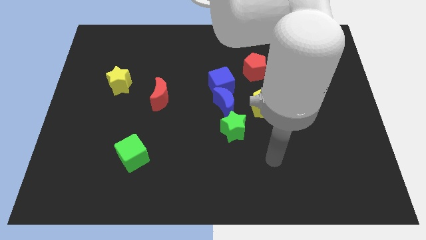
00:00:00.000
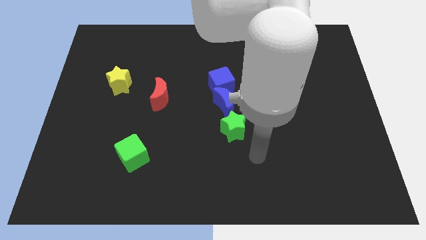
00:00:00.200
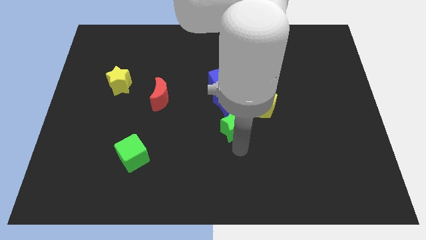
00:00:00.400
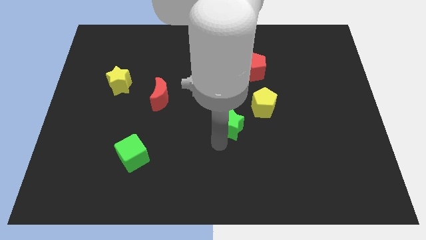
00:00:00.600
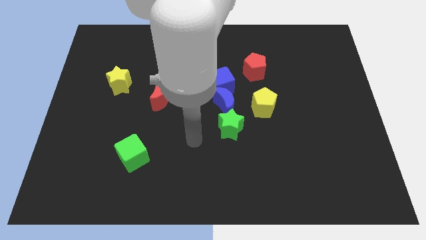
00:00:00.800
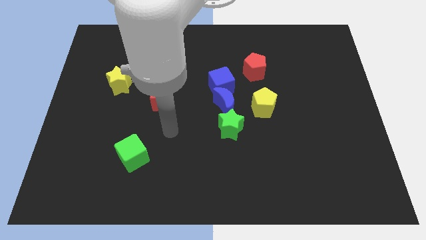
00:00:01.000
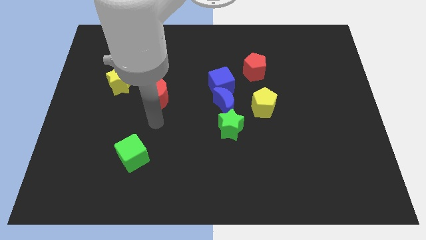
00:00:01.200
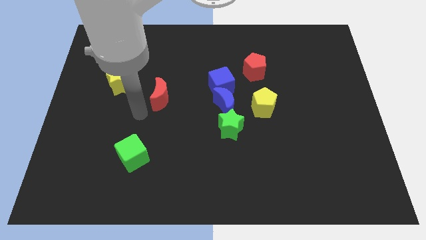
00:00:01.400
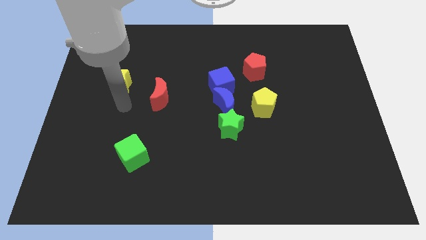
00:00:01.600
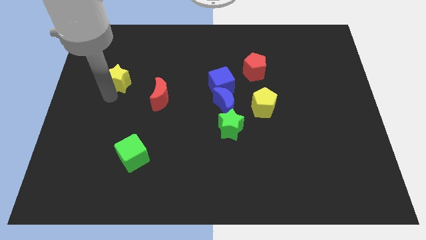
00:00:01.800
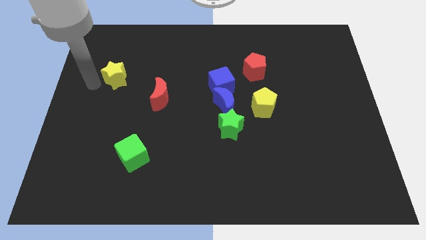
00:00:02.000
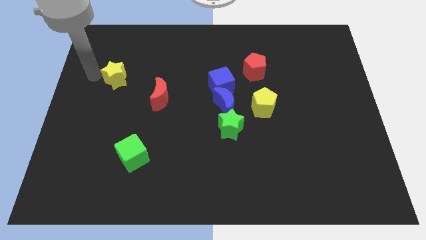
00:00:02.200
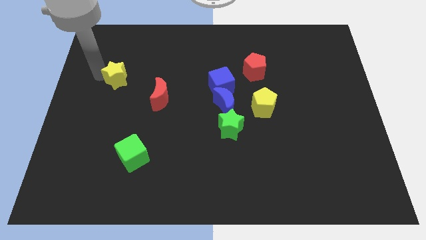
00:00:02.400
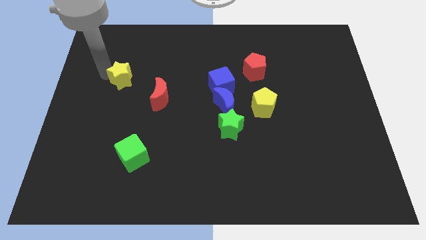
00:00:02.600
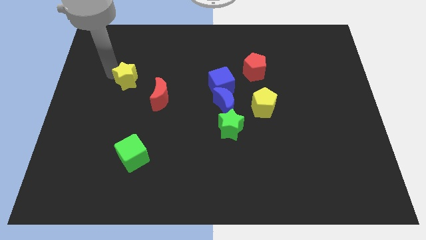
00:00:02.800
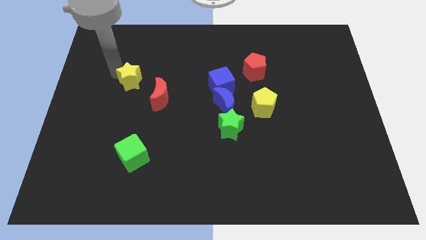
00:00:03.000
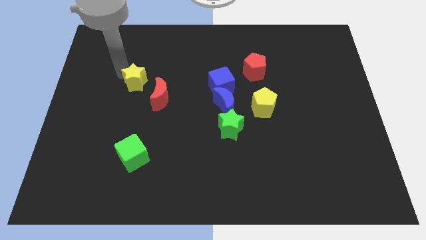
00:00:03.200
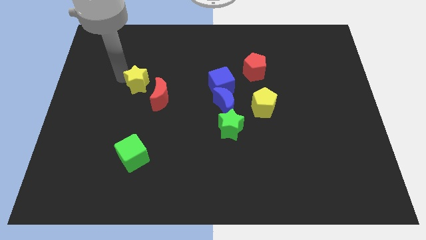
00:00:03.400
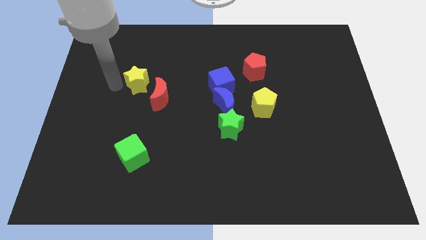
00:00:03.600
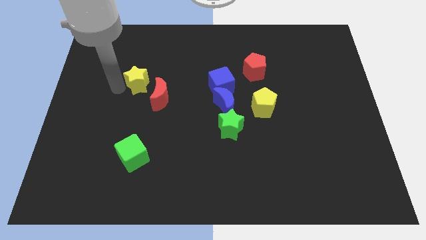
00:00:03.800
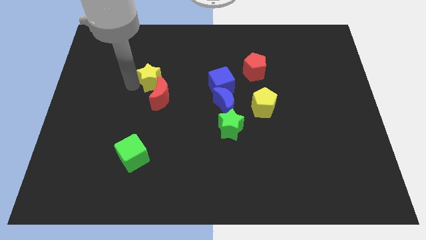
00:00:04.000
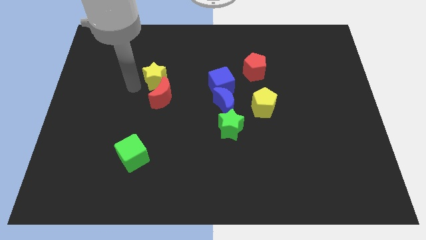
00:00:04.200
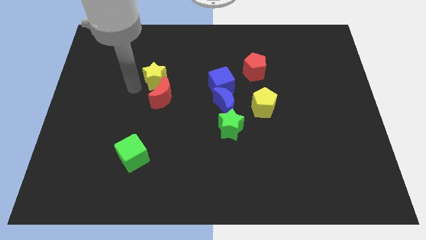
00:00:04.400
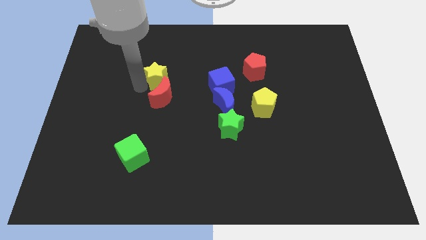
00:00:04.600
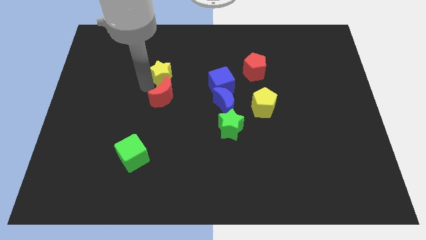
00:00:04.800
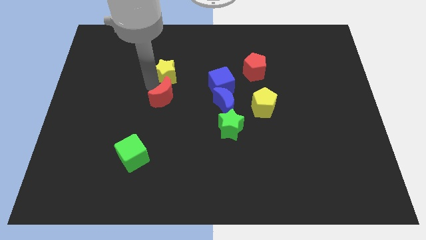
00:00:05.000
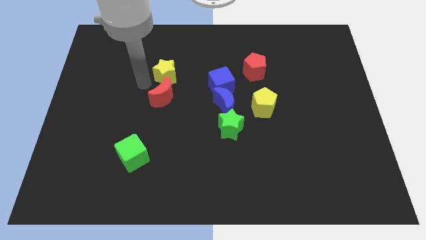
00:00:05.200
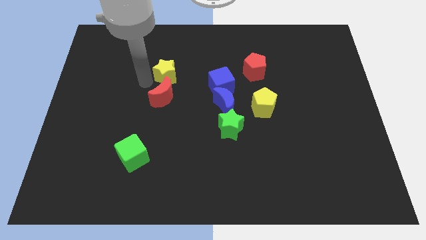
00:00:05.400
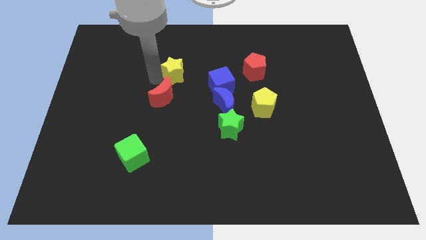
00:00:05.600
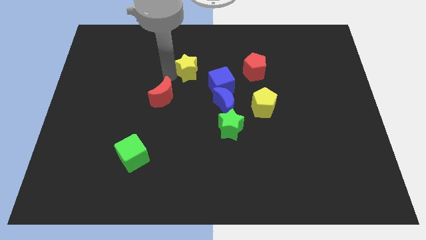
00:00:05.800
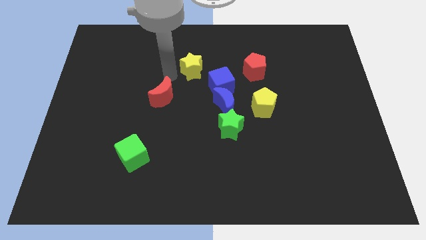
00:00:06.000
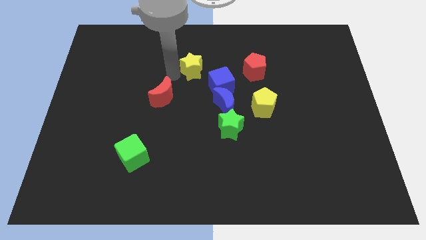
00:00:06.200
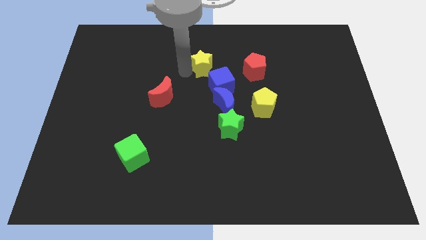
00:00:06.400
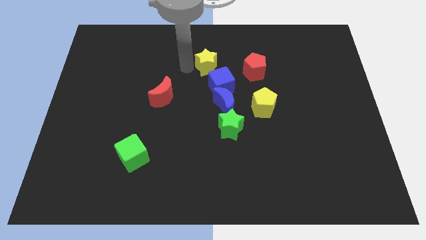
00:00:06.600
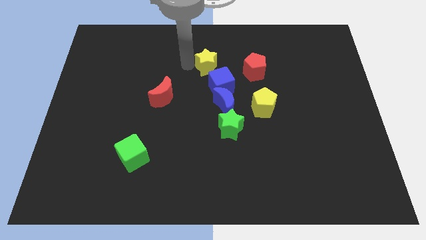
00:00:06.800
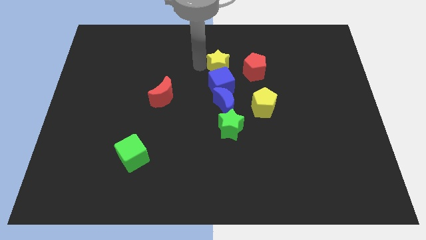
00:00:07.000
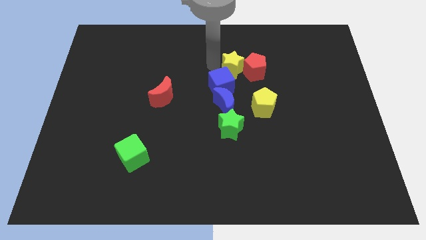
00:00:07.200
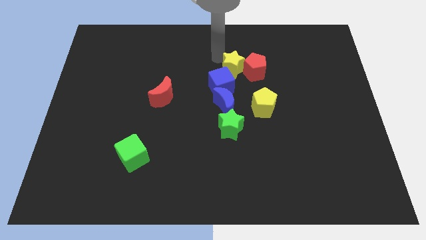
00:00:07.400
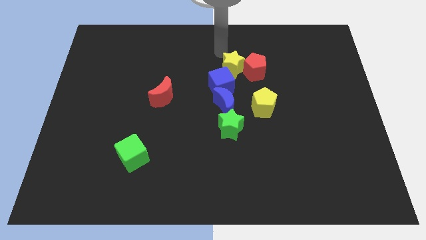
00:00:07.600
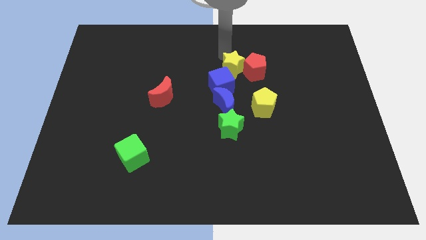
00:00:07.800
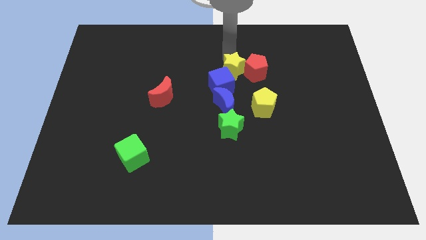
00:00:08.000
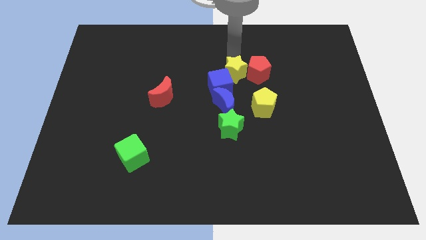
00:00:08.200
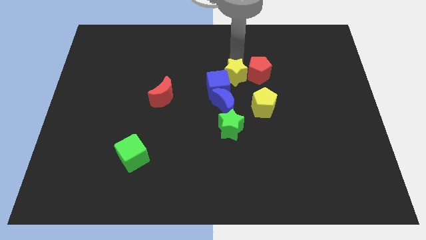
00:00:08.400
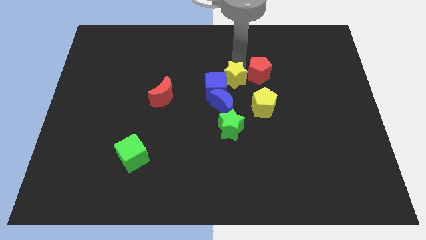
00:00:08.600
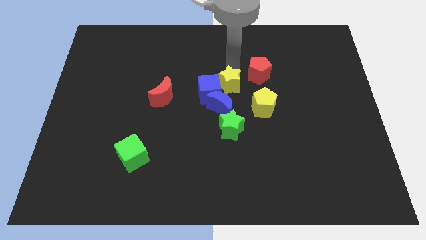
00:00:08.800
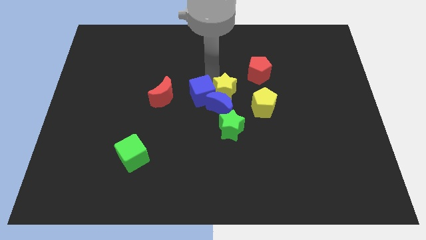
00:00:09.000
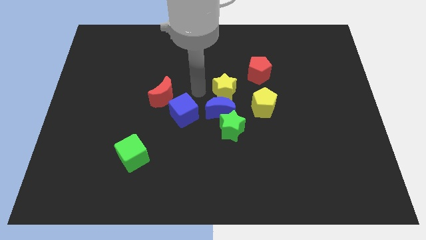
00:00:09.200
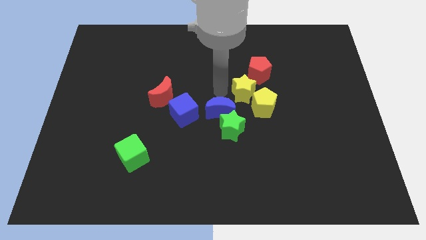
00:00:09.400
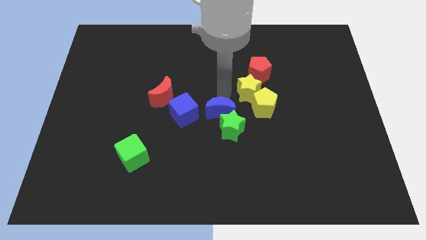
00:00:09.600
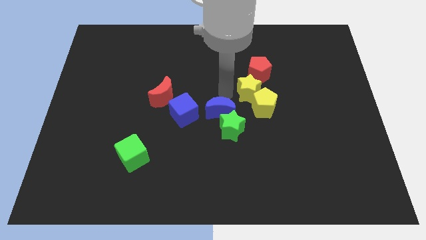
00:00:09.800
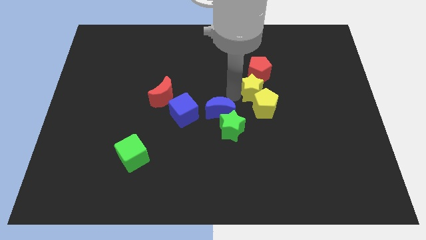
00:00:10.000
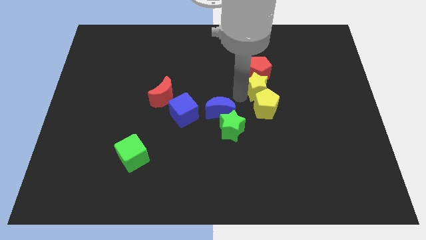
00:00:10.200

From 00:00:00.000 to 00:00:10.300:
put the yellow star diagonally down and to the right of the red pentagon

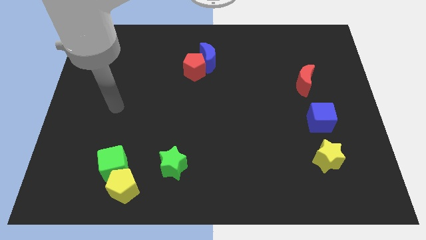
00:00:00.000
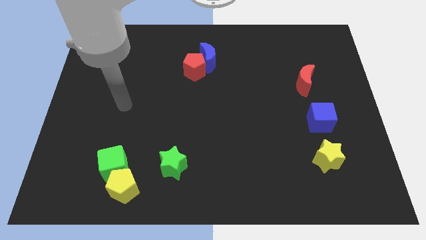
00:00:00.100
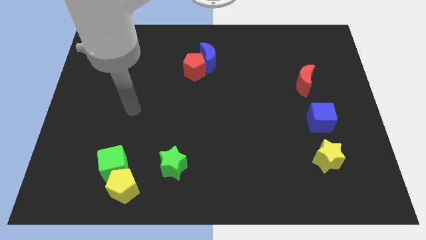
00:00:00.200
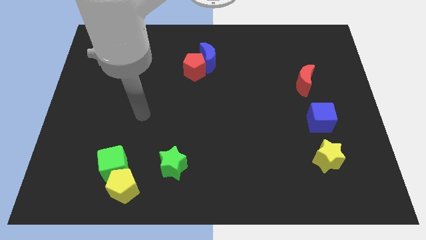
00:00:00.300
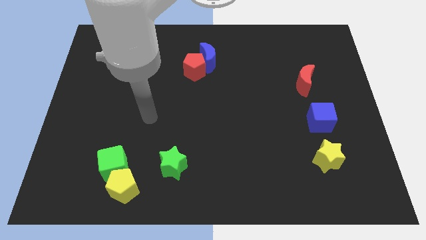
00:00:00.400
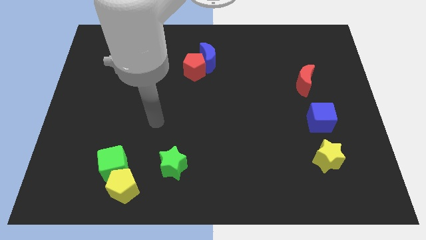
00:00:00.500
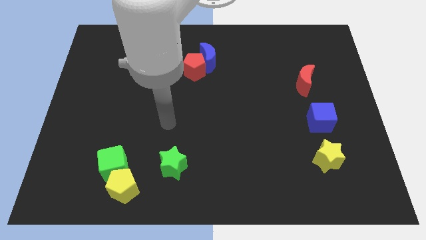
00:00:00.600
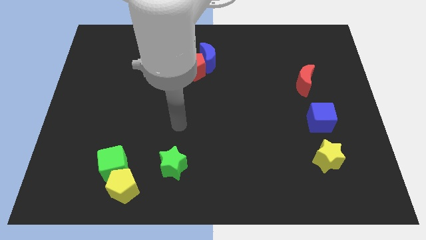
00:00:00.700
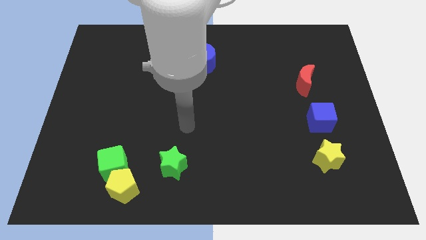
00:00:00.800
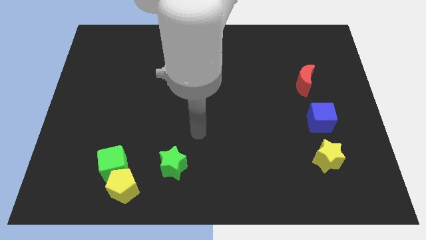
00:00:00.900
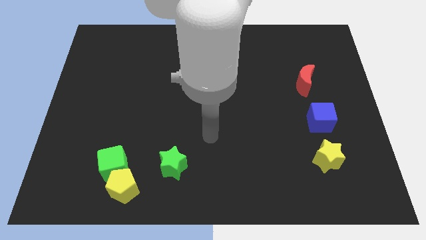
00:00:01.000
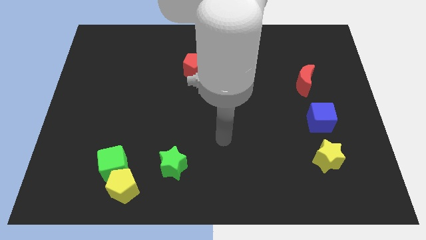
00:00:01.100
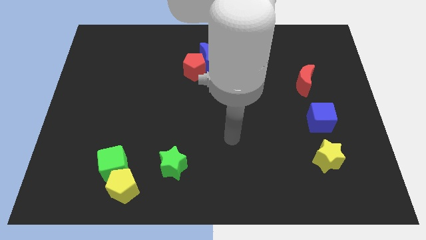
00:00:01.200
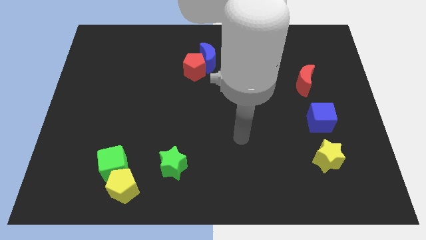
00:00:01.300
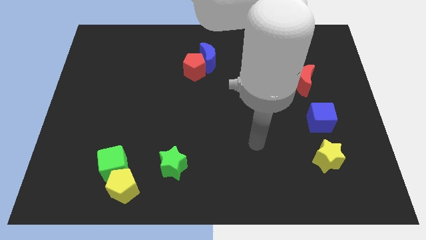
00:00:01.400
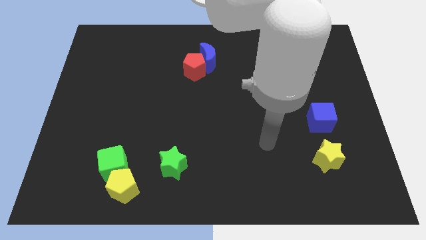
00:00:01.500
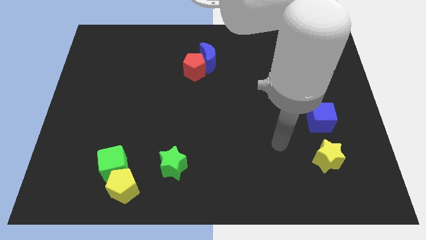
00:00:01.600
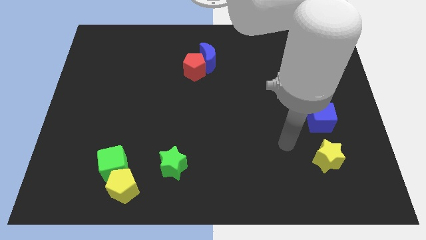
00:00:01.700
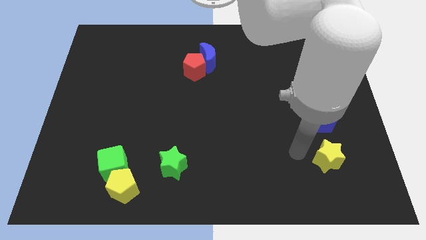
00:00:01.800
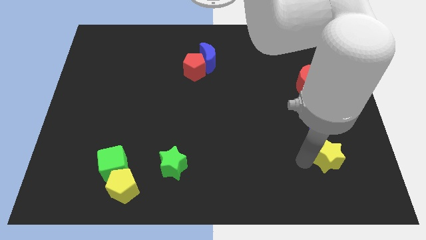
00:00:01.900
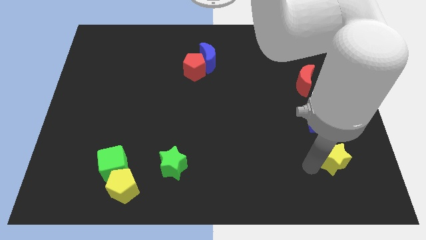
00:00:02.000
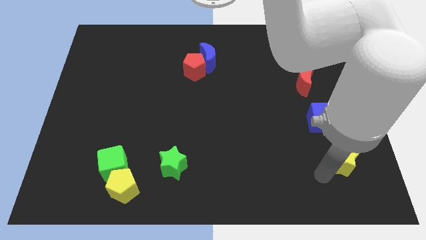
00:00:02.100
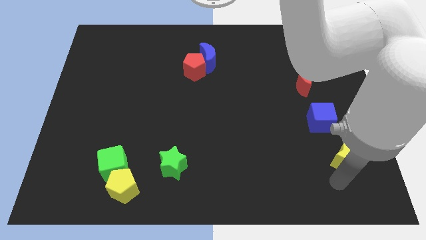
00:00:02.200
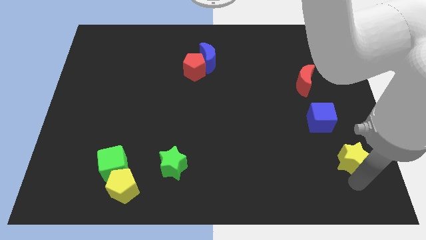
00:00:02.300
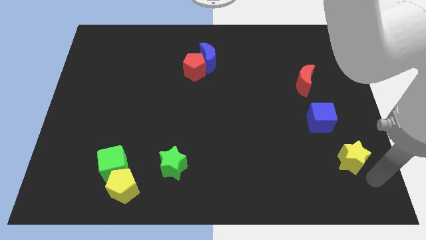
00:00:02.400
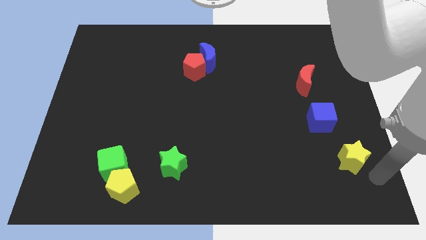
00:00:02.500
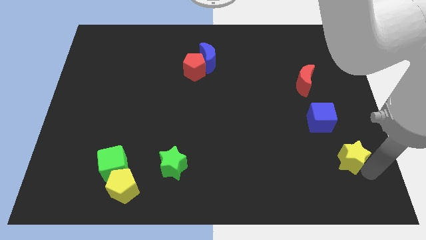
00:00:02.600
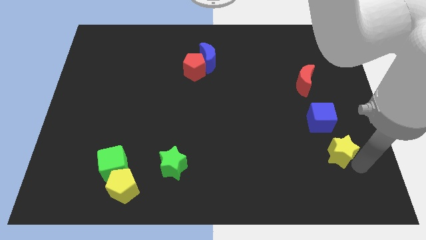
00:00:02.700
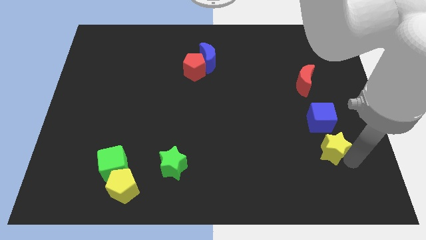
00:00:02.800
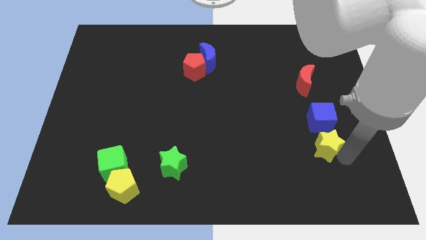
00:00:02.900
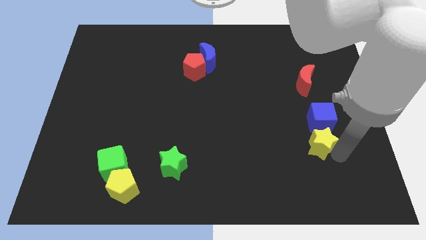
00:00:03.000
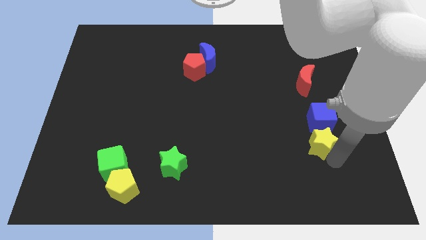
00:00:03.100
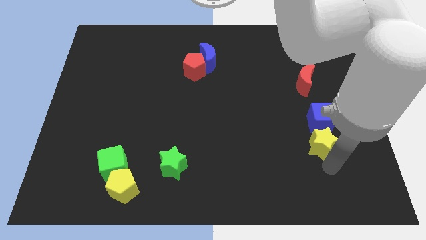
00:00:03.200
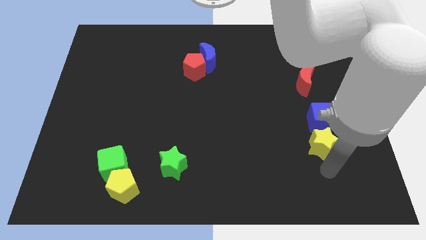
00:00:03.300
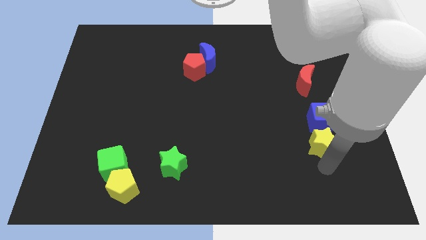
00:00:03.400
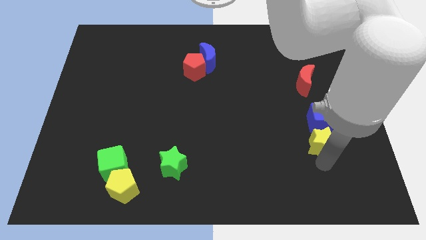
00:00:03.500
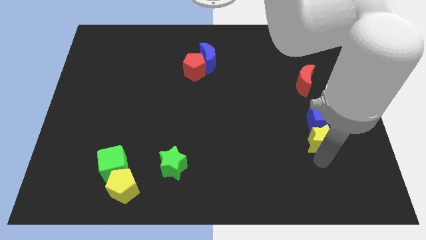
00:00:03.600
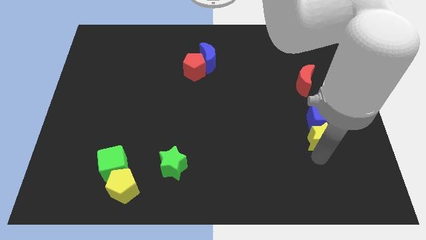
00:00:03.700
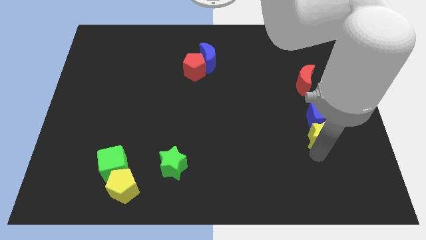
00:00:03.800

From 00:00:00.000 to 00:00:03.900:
put the yellow star to the bottom of the red moon
